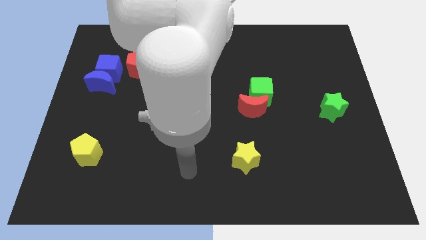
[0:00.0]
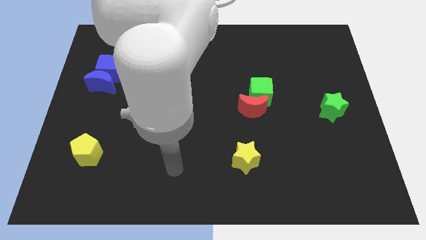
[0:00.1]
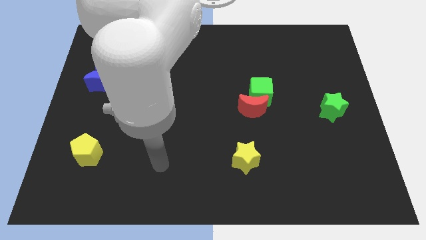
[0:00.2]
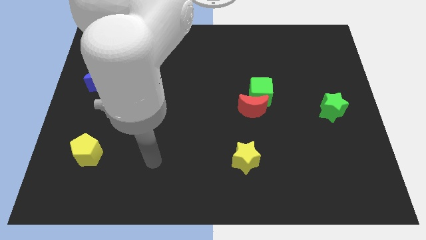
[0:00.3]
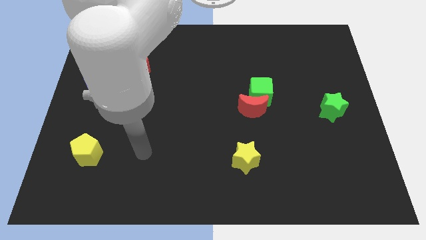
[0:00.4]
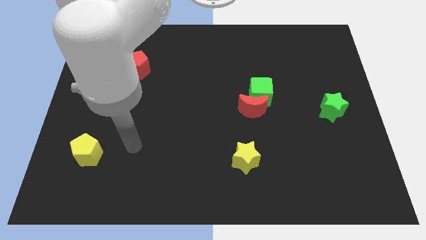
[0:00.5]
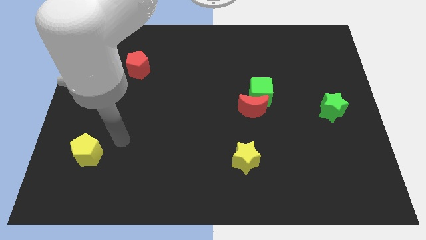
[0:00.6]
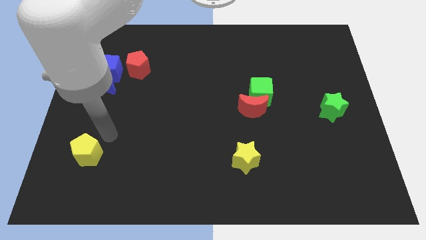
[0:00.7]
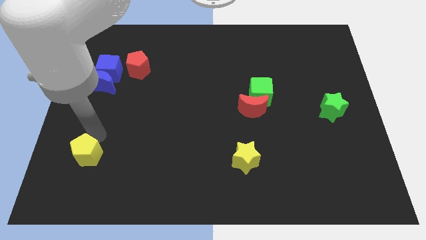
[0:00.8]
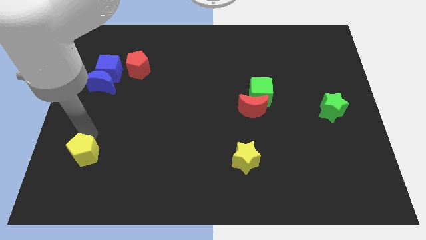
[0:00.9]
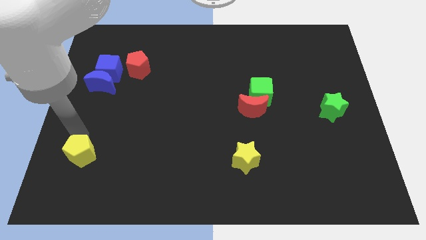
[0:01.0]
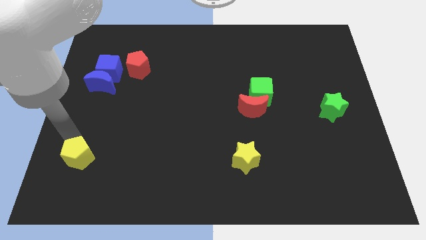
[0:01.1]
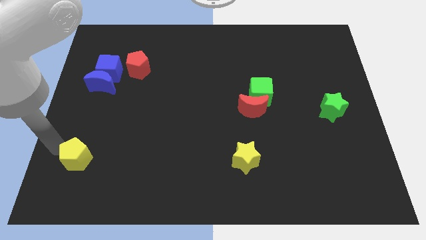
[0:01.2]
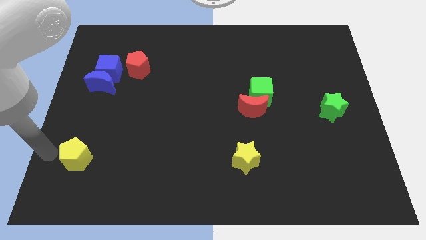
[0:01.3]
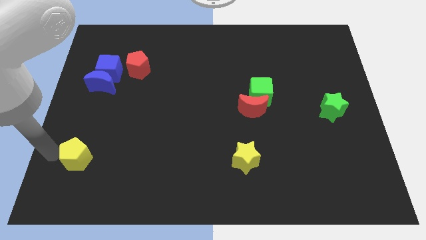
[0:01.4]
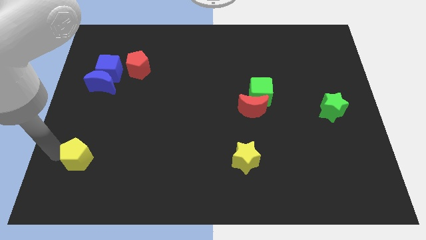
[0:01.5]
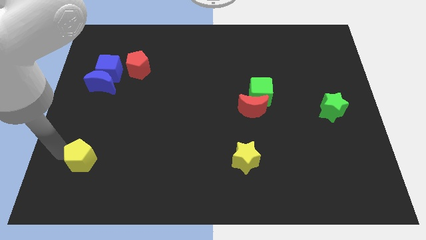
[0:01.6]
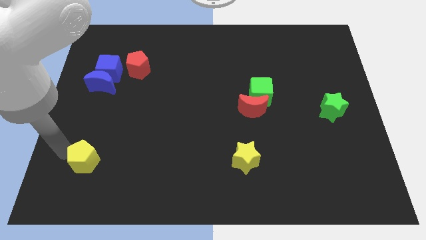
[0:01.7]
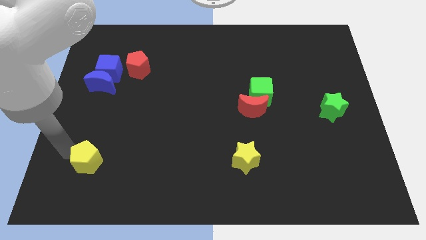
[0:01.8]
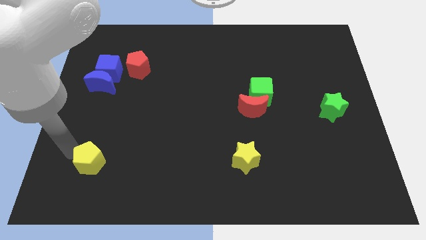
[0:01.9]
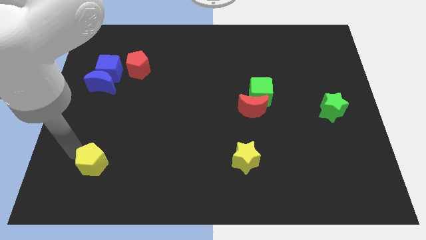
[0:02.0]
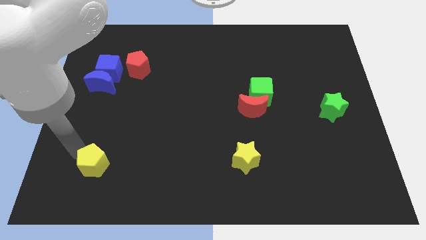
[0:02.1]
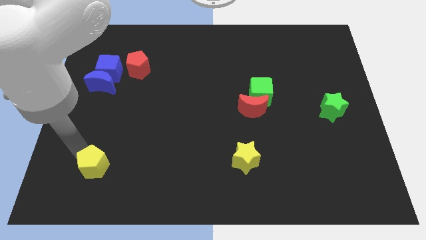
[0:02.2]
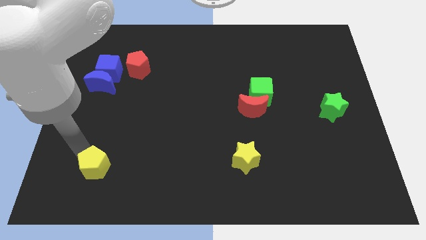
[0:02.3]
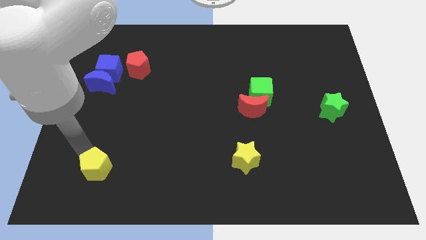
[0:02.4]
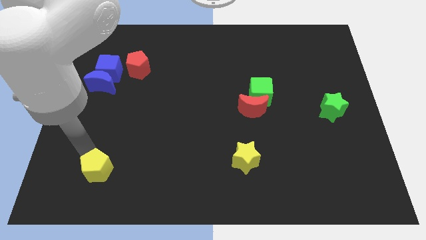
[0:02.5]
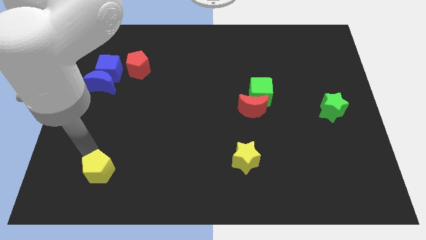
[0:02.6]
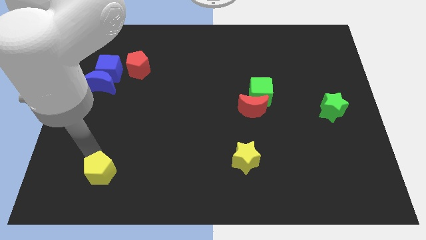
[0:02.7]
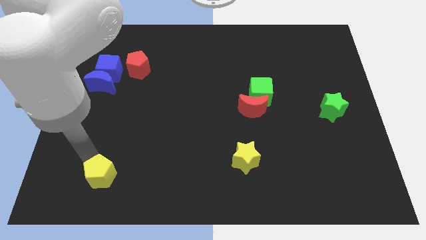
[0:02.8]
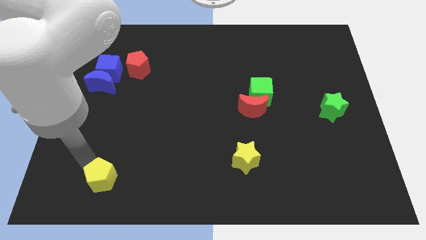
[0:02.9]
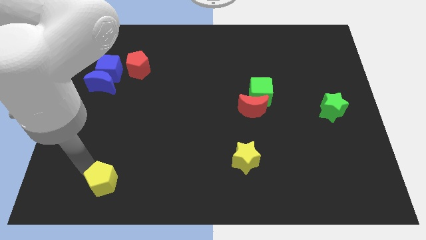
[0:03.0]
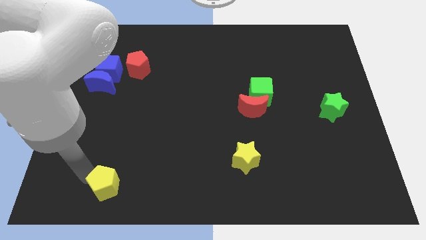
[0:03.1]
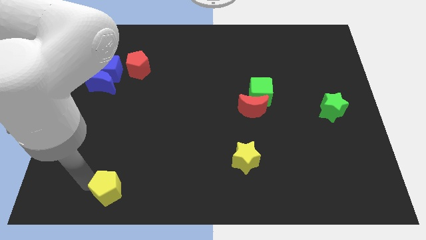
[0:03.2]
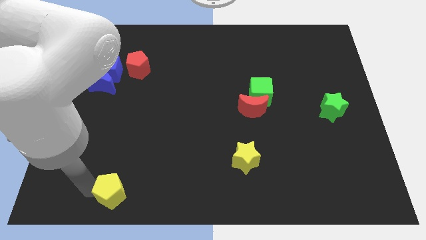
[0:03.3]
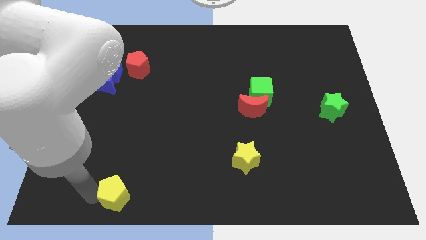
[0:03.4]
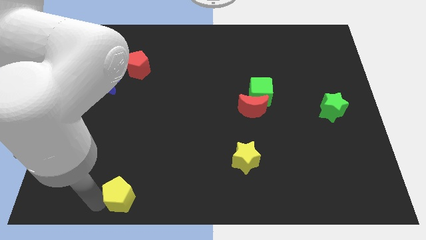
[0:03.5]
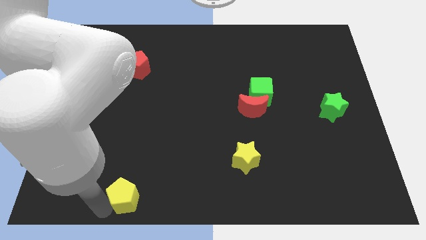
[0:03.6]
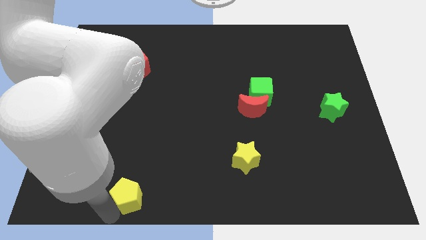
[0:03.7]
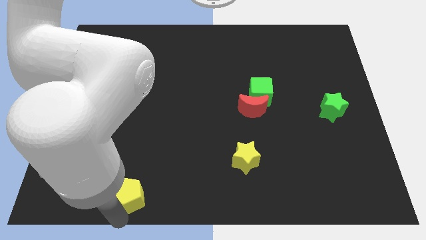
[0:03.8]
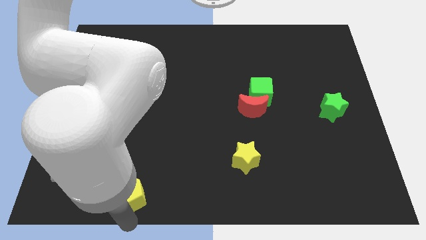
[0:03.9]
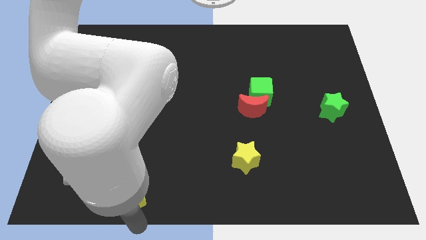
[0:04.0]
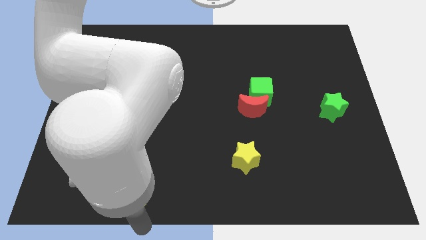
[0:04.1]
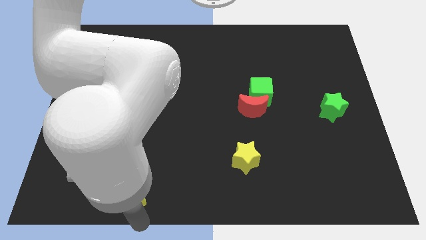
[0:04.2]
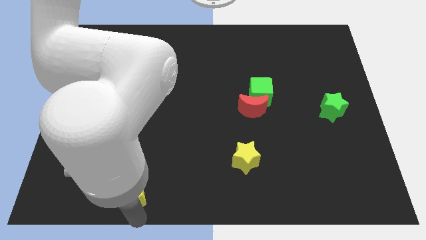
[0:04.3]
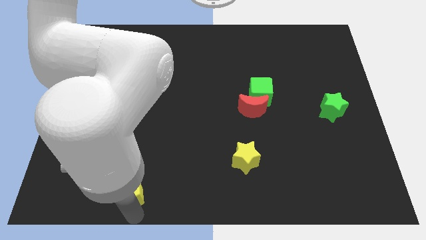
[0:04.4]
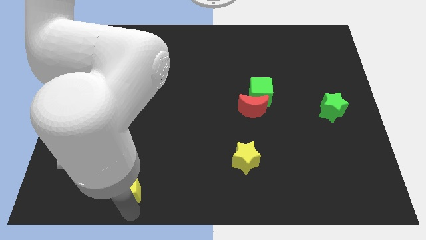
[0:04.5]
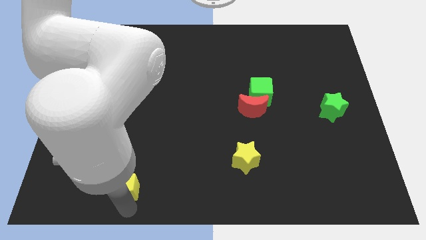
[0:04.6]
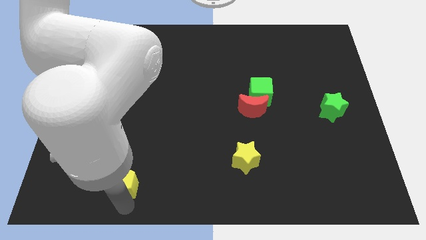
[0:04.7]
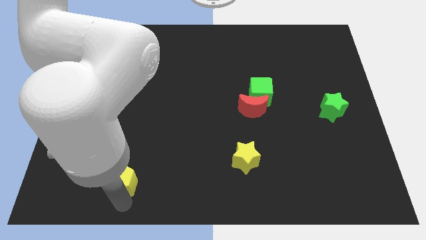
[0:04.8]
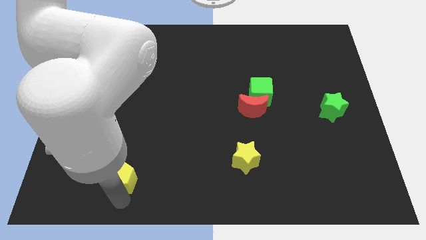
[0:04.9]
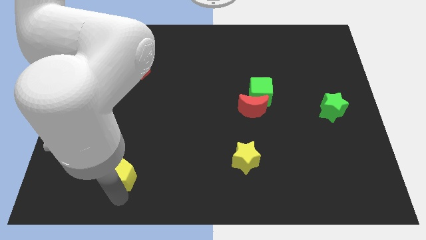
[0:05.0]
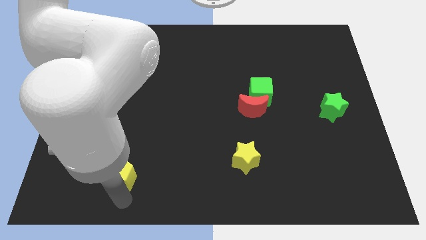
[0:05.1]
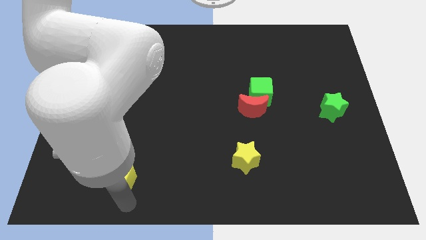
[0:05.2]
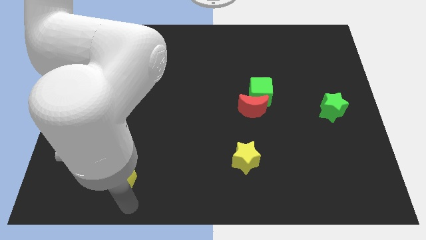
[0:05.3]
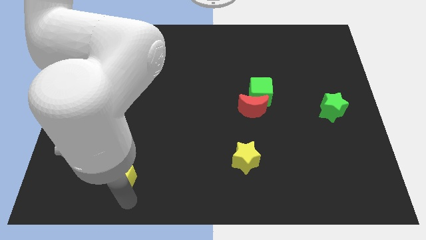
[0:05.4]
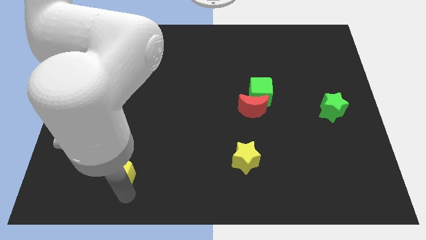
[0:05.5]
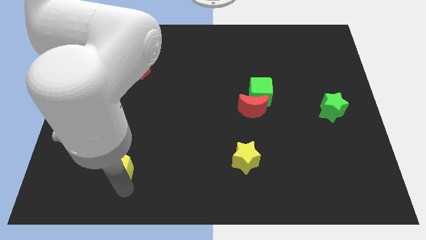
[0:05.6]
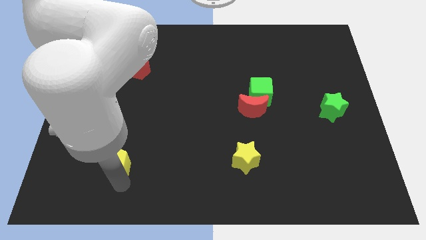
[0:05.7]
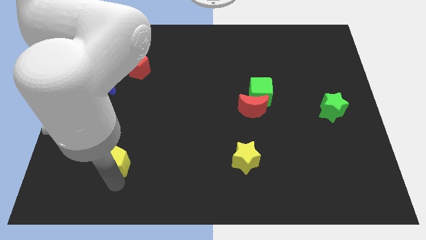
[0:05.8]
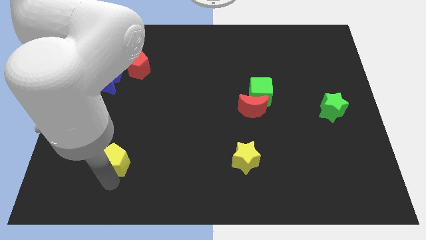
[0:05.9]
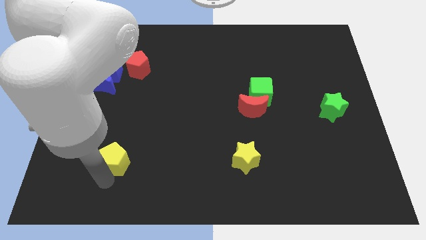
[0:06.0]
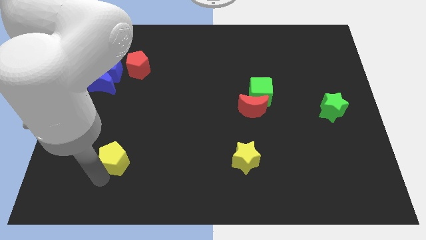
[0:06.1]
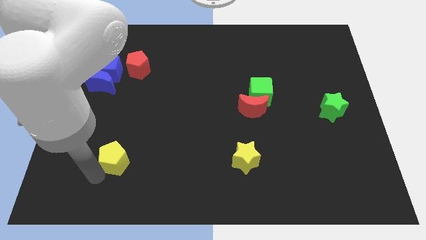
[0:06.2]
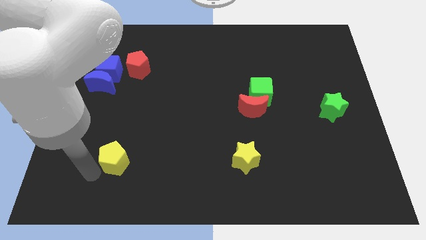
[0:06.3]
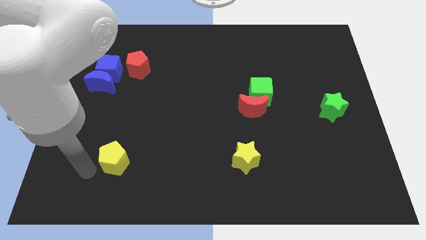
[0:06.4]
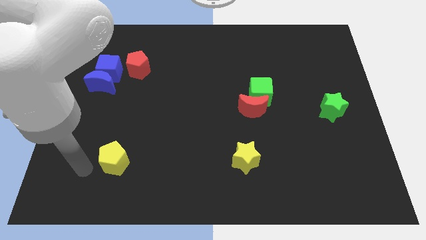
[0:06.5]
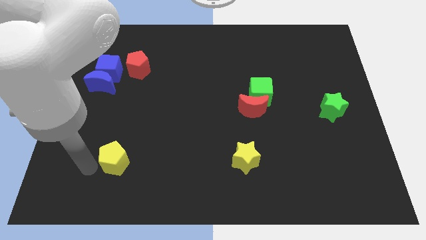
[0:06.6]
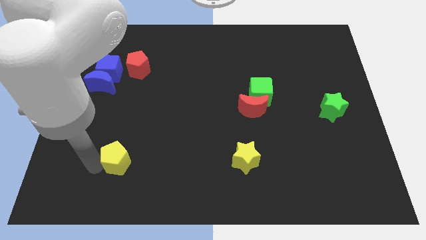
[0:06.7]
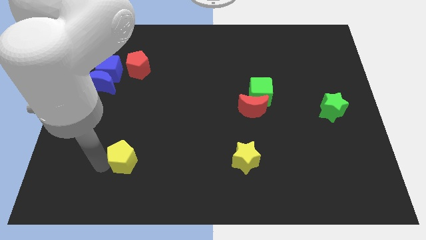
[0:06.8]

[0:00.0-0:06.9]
slightly push the yellow pentagon to the right

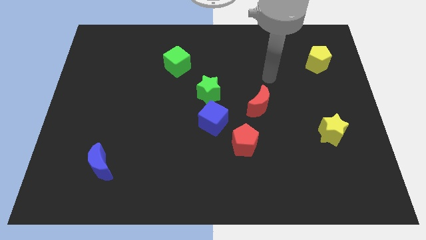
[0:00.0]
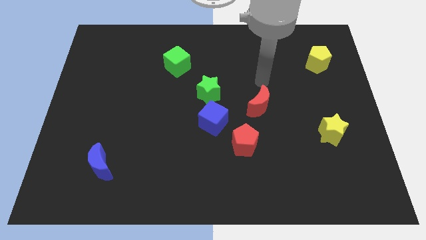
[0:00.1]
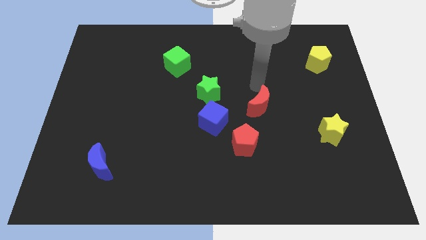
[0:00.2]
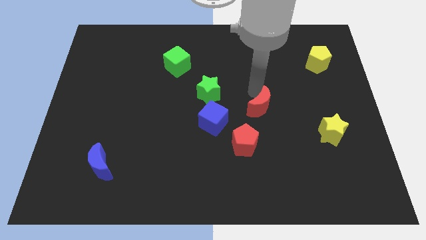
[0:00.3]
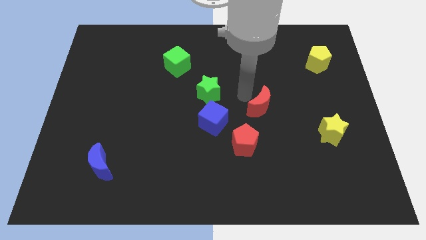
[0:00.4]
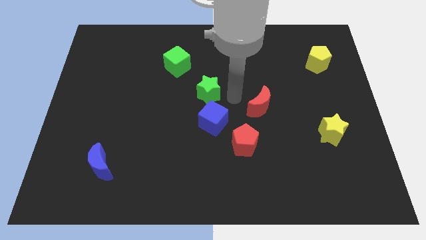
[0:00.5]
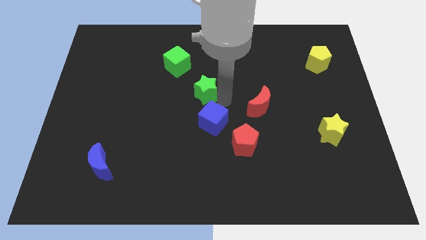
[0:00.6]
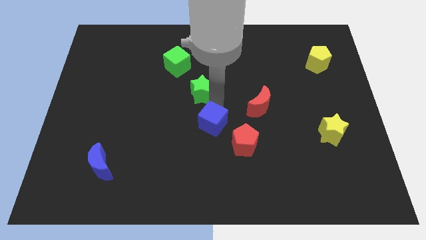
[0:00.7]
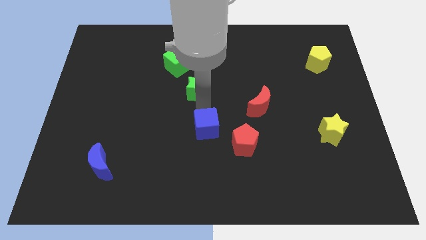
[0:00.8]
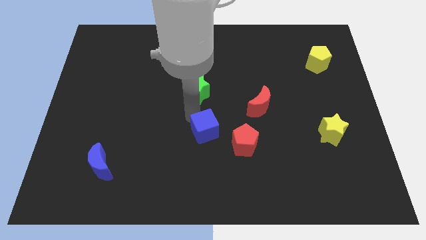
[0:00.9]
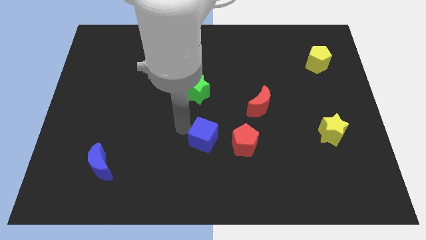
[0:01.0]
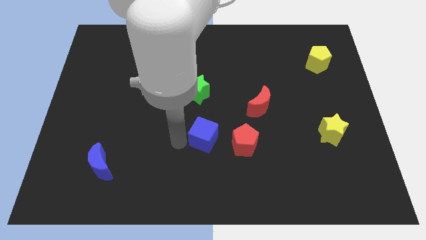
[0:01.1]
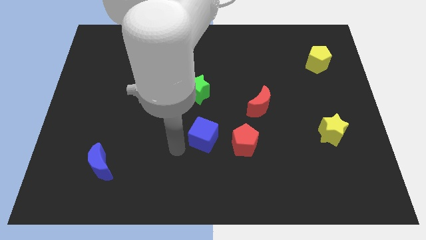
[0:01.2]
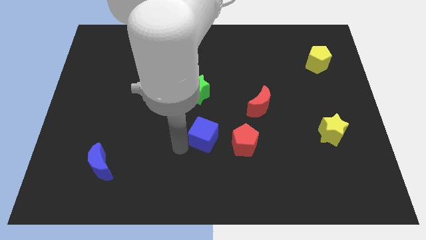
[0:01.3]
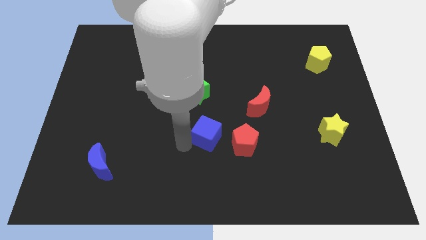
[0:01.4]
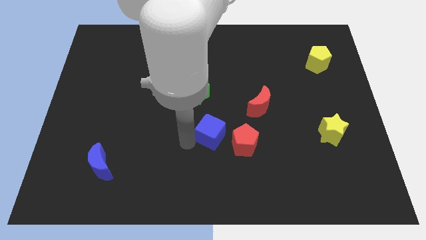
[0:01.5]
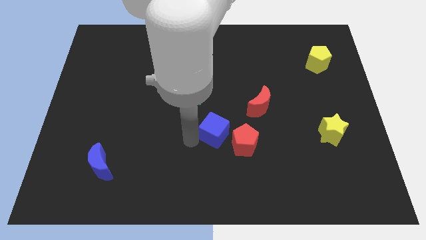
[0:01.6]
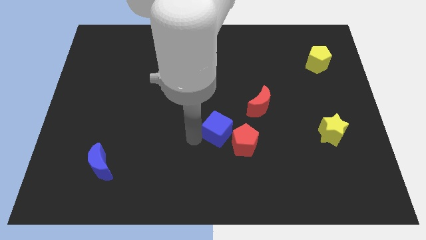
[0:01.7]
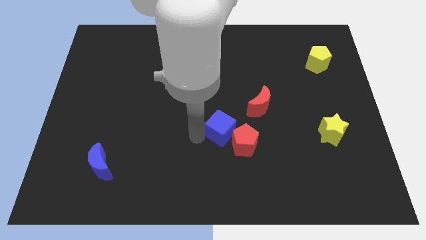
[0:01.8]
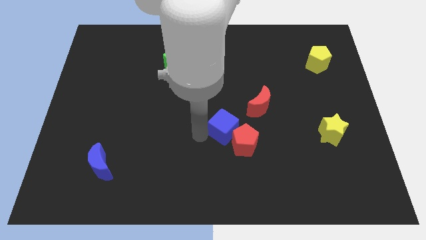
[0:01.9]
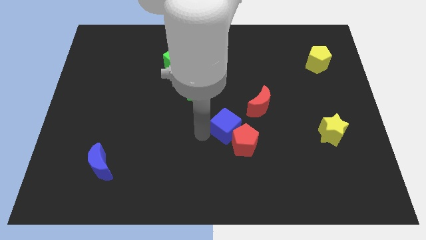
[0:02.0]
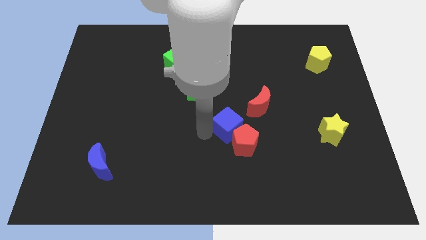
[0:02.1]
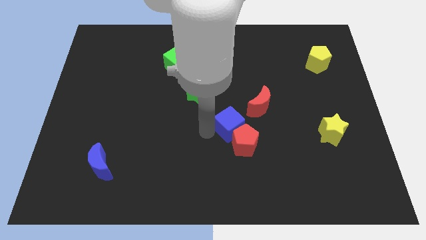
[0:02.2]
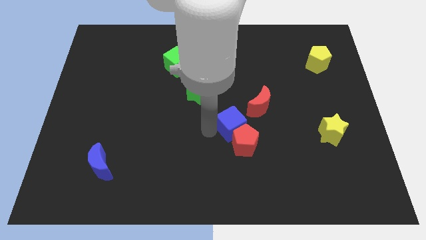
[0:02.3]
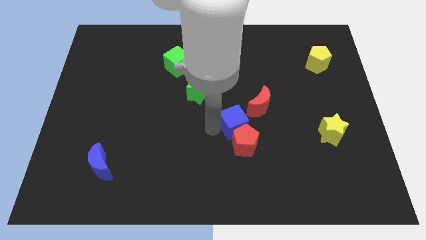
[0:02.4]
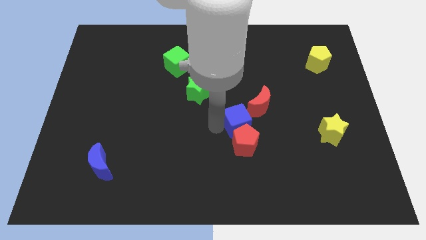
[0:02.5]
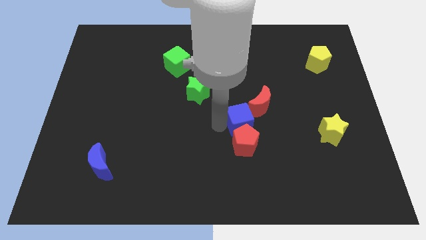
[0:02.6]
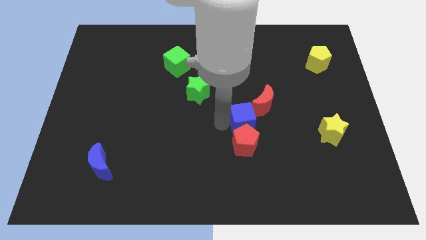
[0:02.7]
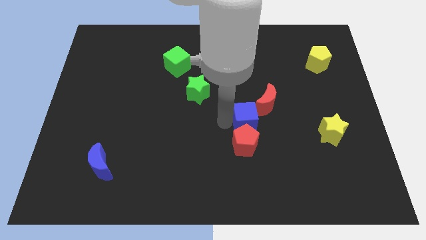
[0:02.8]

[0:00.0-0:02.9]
slide the blue cube a bit to the right
